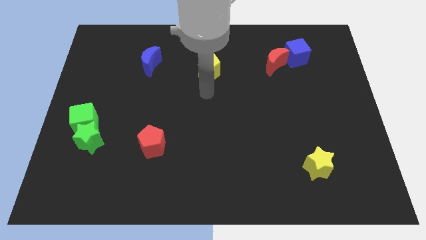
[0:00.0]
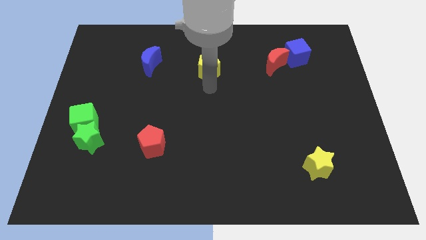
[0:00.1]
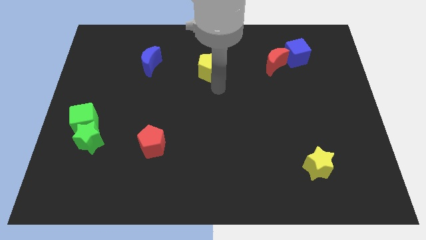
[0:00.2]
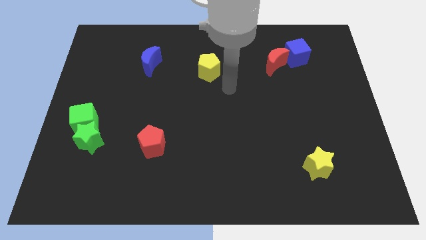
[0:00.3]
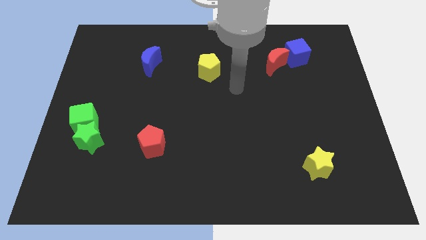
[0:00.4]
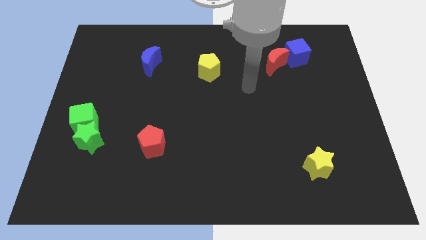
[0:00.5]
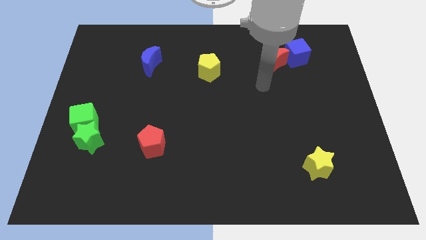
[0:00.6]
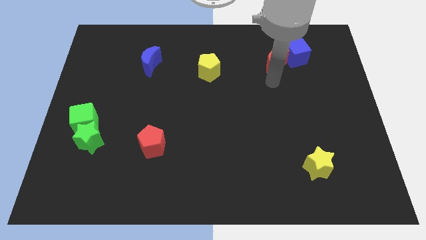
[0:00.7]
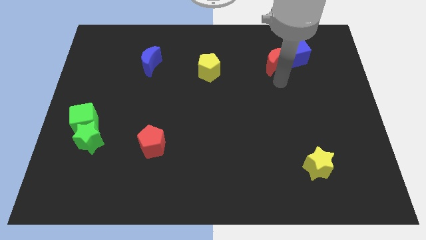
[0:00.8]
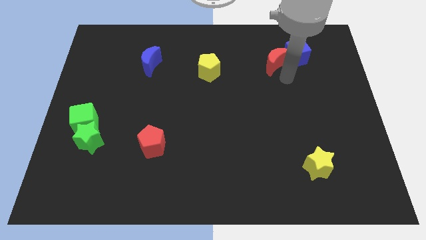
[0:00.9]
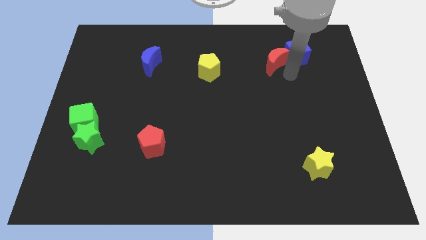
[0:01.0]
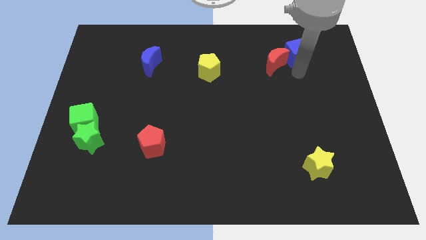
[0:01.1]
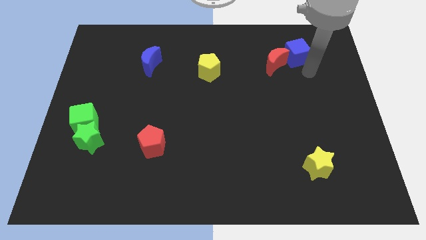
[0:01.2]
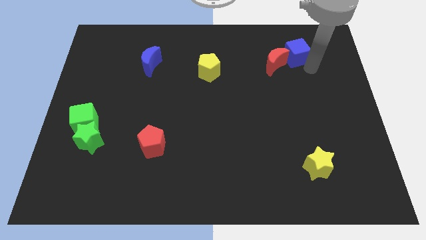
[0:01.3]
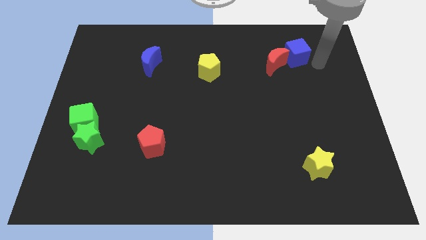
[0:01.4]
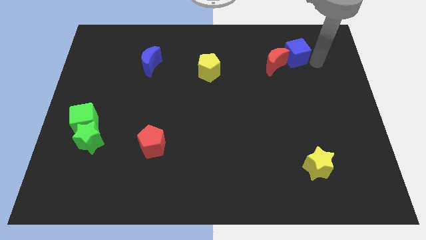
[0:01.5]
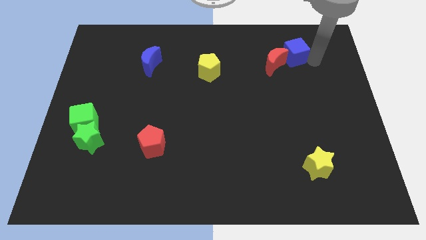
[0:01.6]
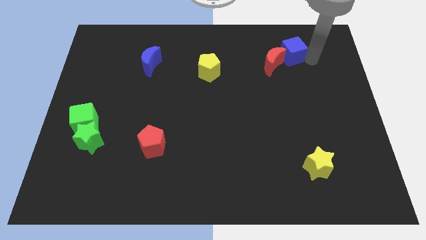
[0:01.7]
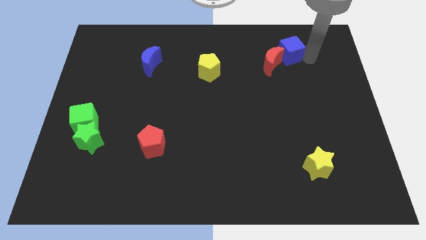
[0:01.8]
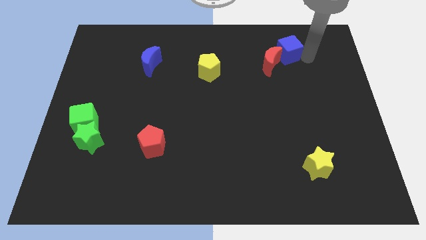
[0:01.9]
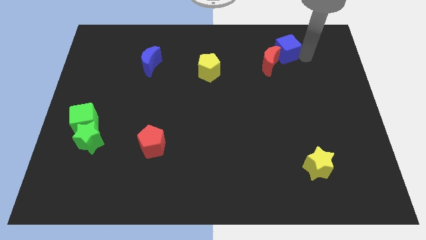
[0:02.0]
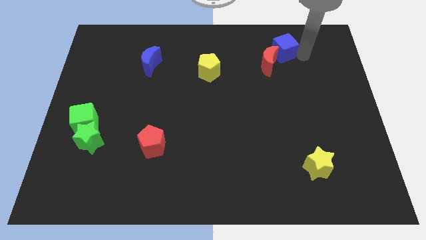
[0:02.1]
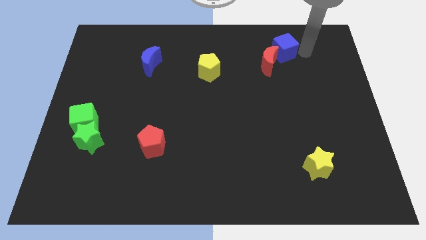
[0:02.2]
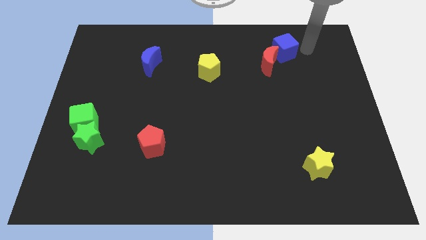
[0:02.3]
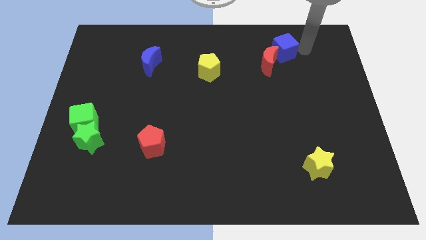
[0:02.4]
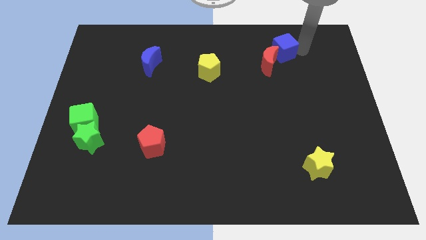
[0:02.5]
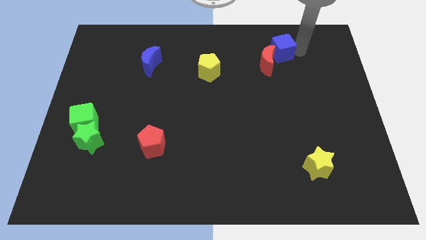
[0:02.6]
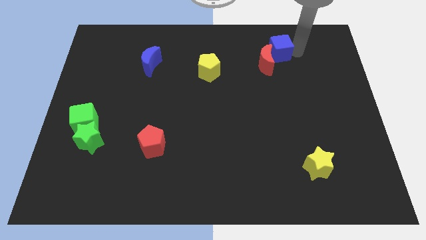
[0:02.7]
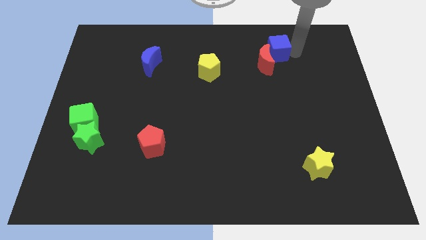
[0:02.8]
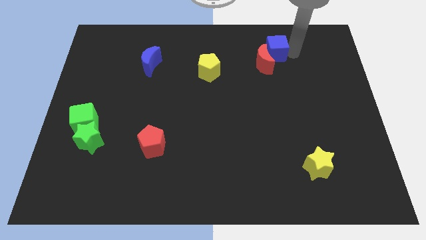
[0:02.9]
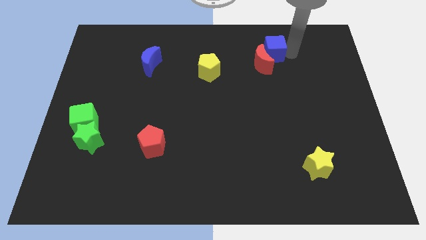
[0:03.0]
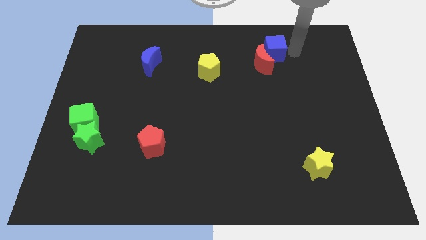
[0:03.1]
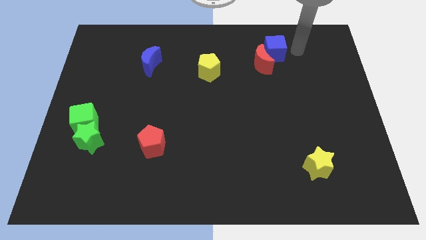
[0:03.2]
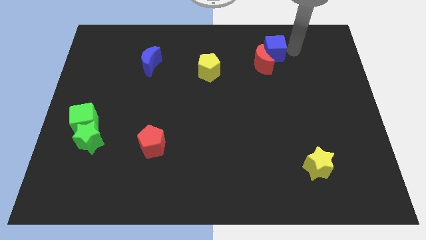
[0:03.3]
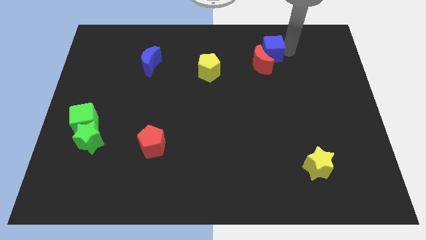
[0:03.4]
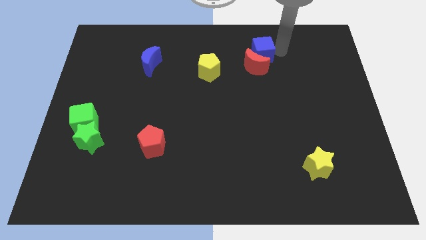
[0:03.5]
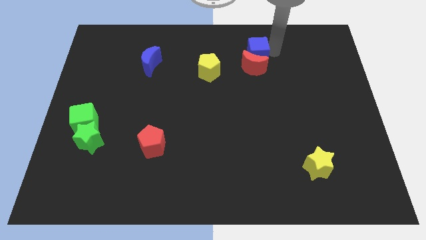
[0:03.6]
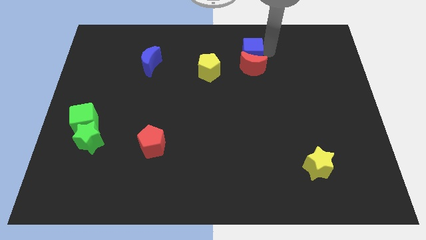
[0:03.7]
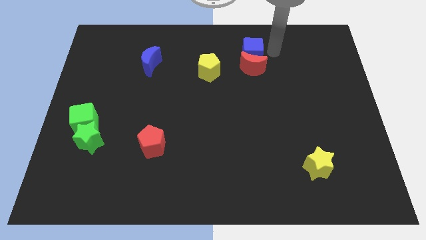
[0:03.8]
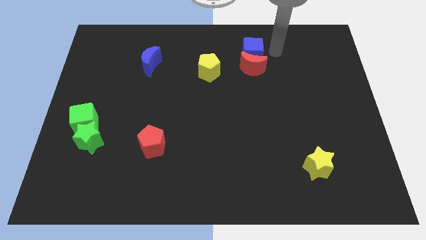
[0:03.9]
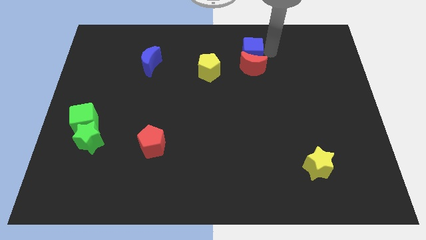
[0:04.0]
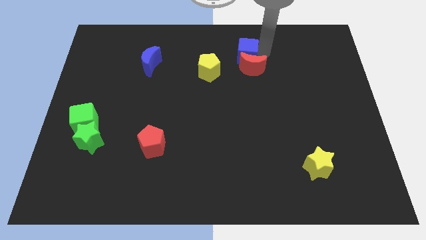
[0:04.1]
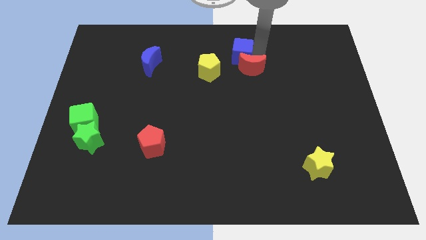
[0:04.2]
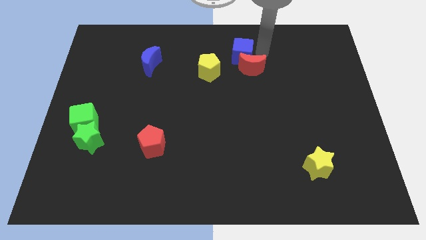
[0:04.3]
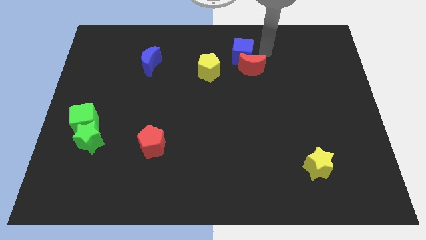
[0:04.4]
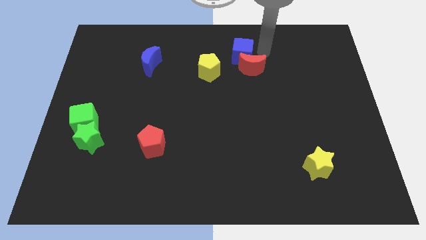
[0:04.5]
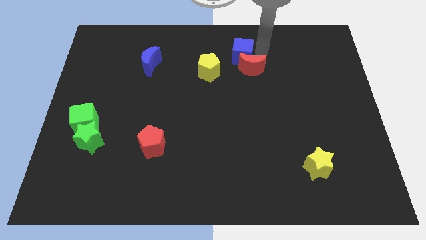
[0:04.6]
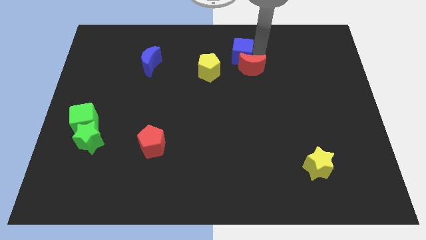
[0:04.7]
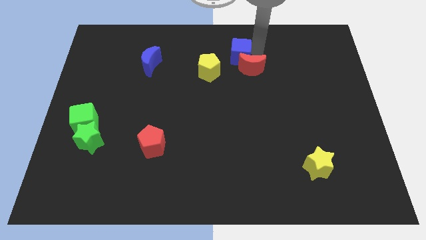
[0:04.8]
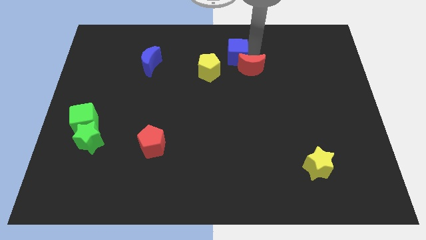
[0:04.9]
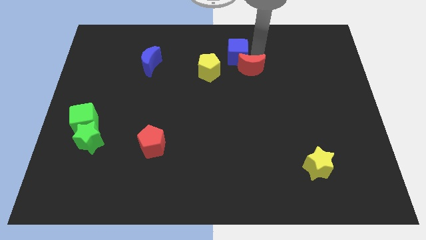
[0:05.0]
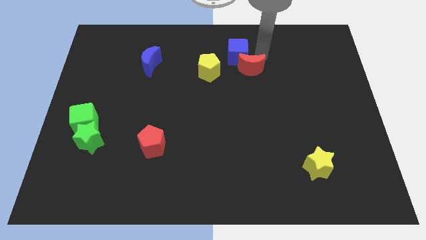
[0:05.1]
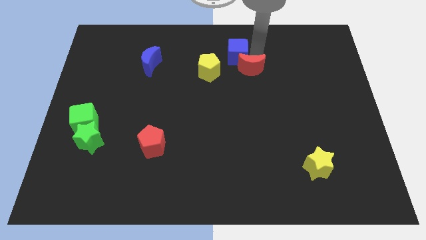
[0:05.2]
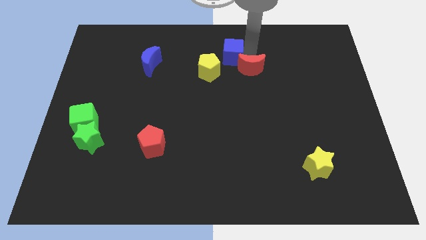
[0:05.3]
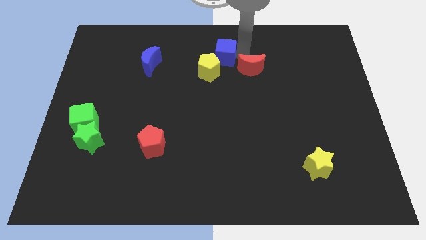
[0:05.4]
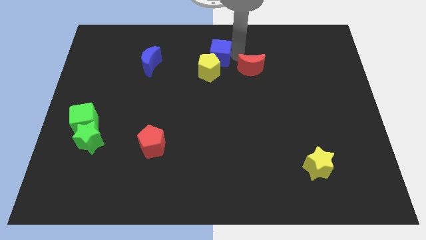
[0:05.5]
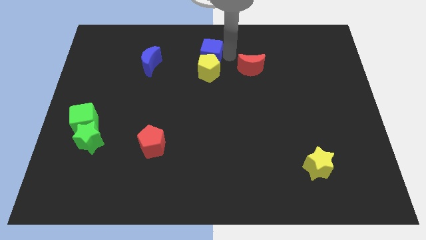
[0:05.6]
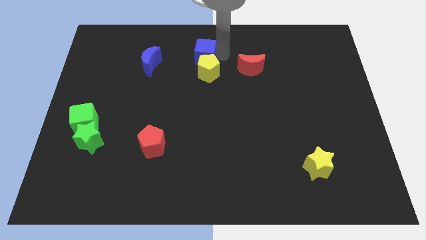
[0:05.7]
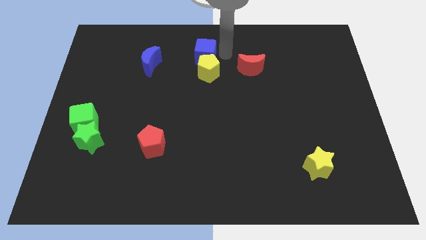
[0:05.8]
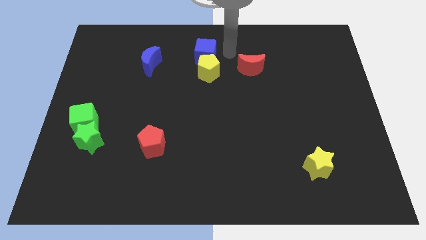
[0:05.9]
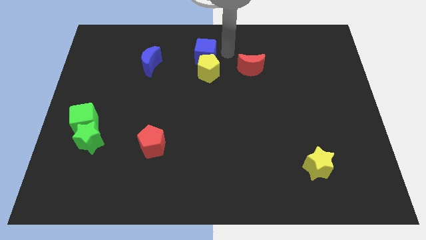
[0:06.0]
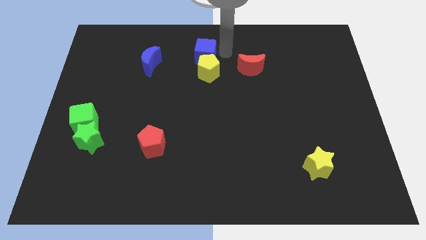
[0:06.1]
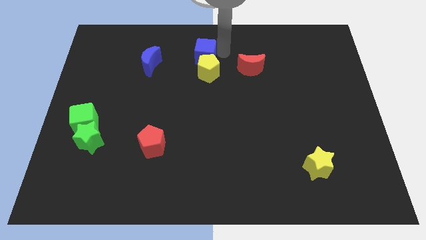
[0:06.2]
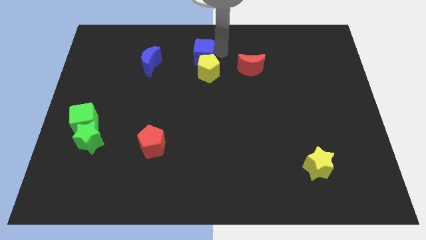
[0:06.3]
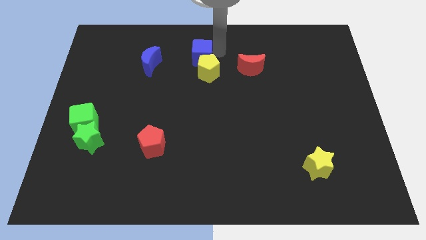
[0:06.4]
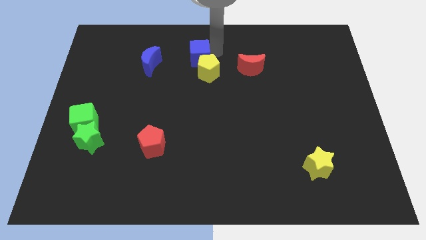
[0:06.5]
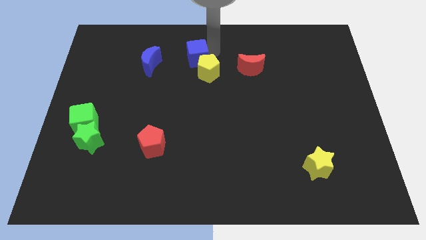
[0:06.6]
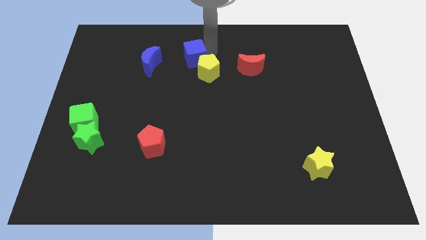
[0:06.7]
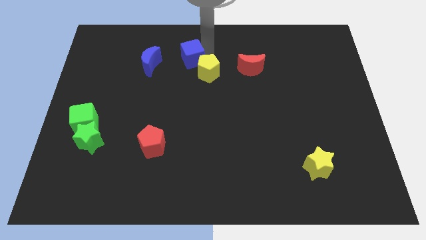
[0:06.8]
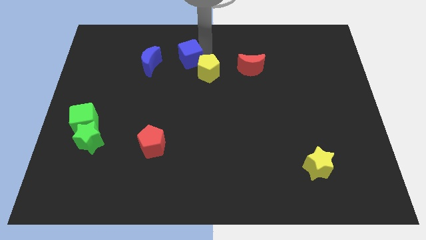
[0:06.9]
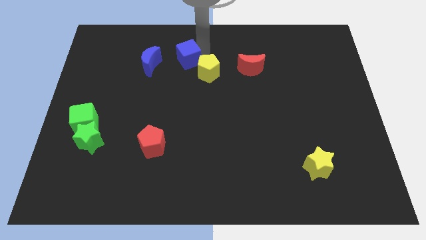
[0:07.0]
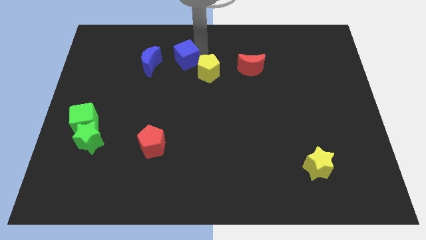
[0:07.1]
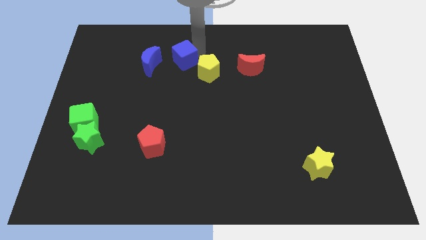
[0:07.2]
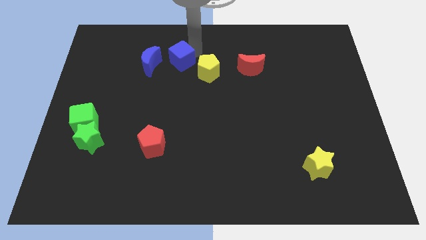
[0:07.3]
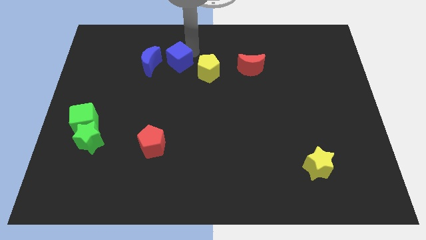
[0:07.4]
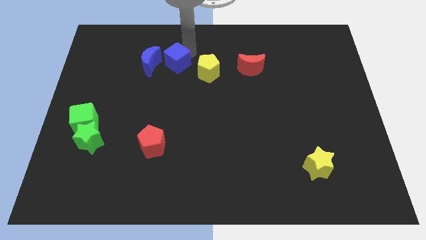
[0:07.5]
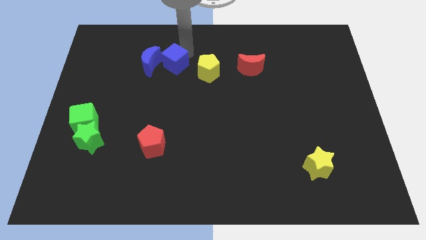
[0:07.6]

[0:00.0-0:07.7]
slide the blue cube to the bottom right of the blue moon
